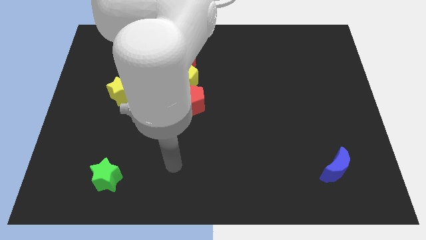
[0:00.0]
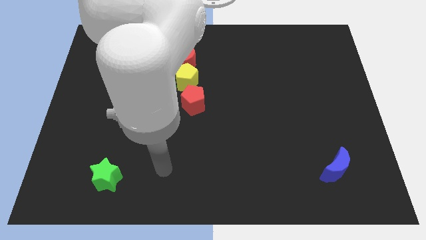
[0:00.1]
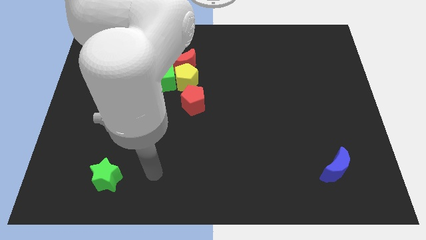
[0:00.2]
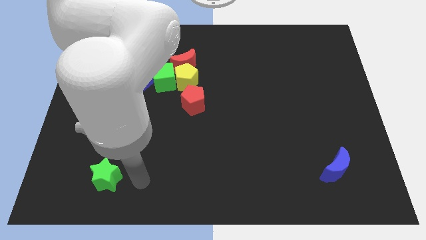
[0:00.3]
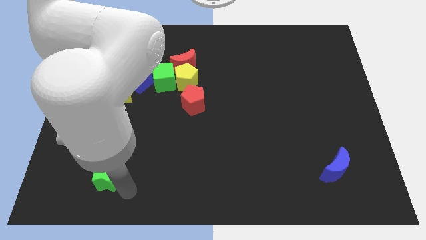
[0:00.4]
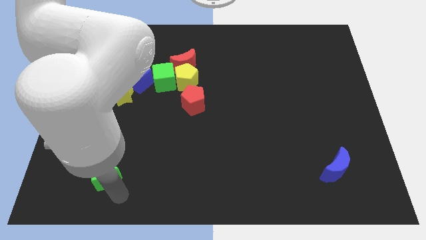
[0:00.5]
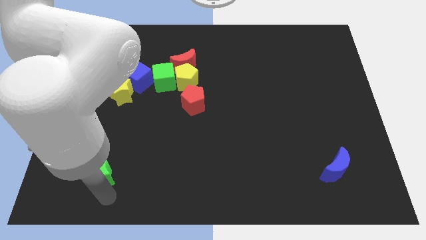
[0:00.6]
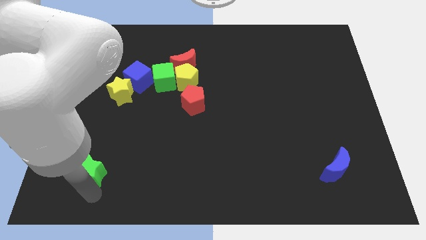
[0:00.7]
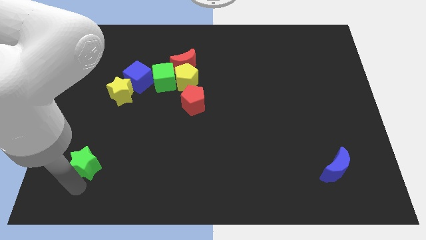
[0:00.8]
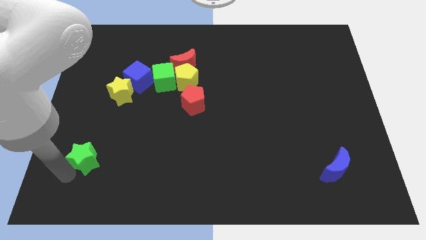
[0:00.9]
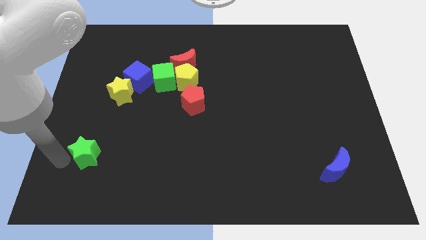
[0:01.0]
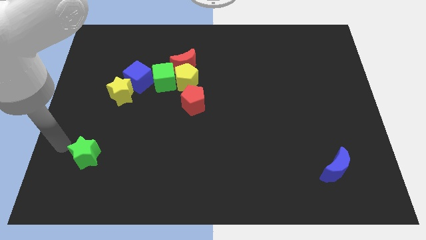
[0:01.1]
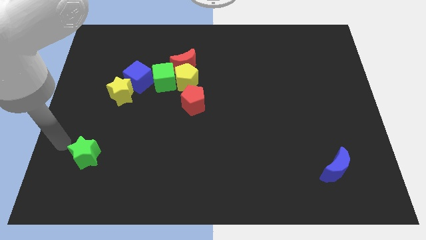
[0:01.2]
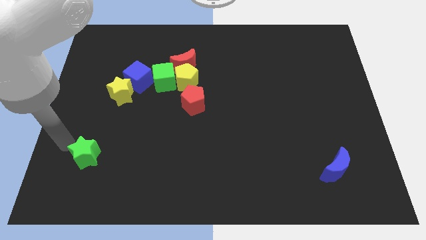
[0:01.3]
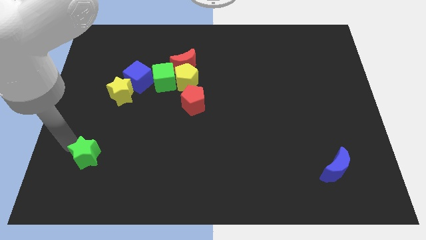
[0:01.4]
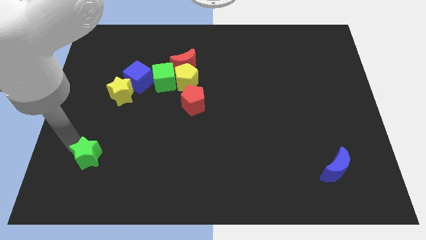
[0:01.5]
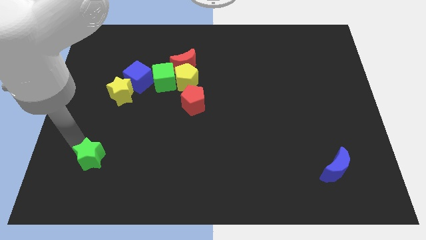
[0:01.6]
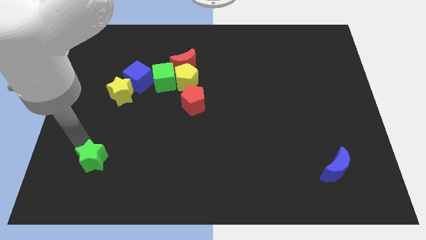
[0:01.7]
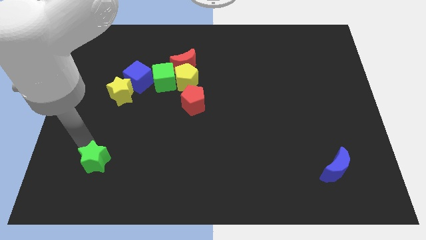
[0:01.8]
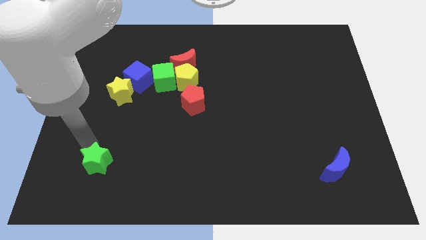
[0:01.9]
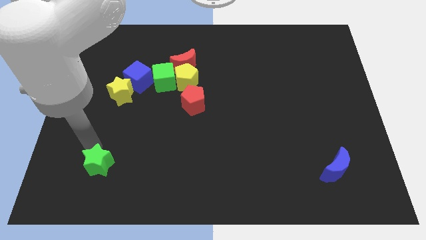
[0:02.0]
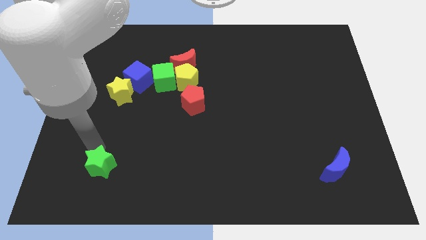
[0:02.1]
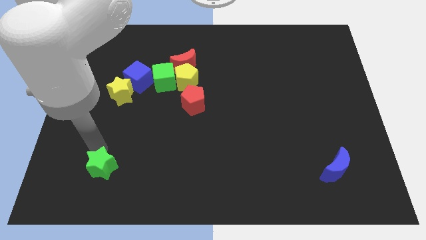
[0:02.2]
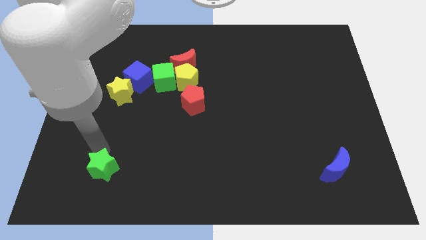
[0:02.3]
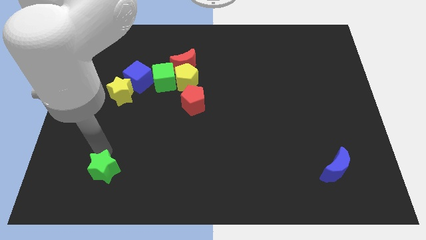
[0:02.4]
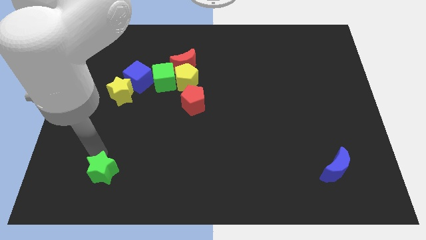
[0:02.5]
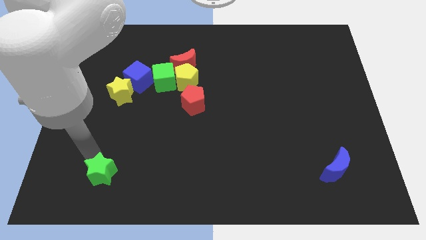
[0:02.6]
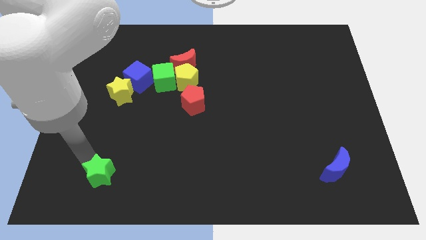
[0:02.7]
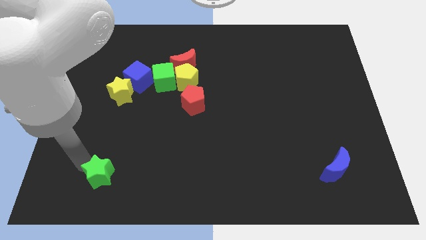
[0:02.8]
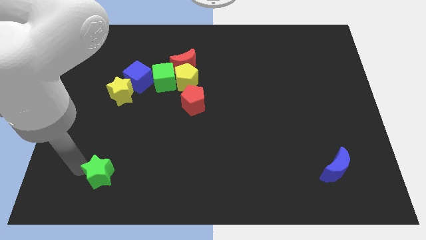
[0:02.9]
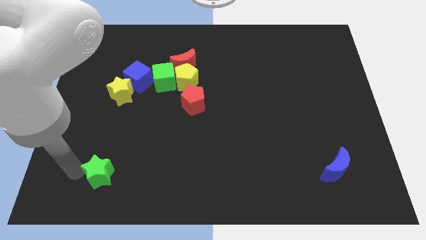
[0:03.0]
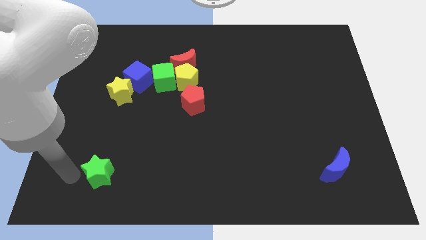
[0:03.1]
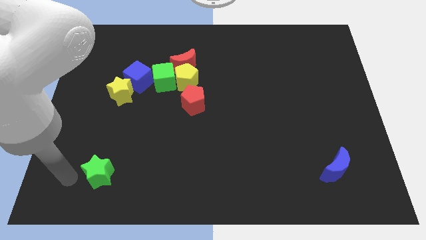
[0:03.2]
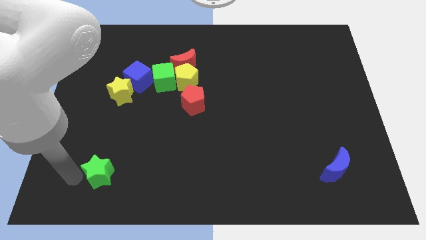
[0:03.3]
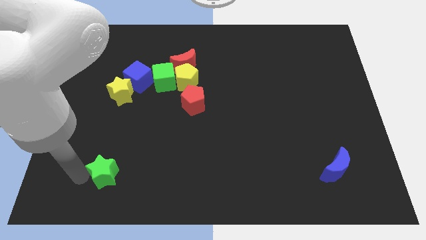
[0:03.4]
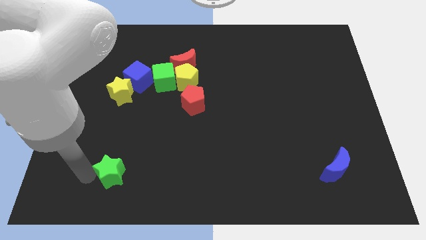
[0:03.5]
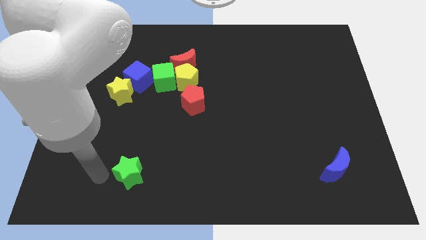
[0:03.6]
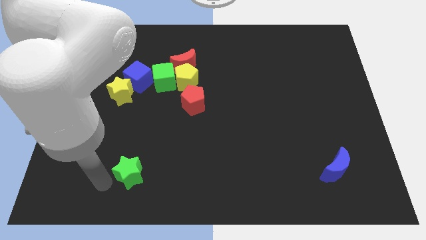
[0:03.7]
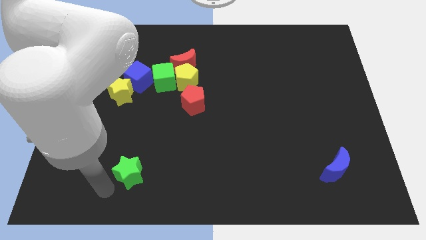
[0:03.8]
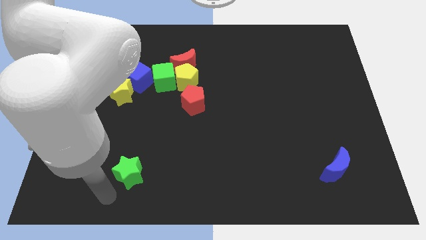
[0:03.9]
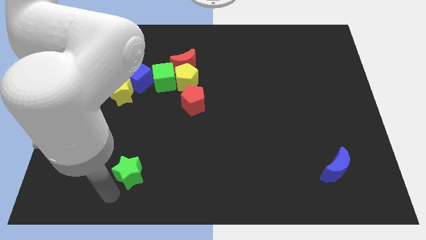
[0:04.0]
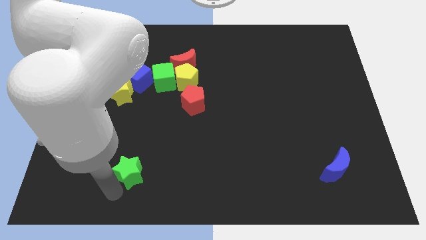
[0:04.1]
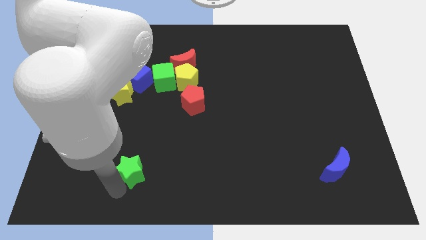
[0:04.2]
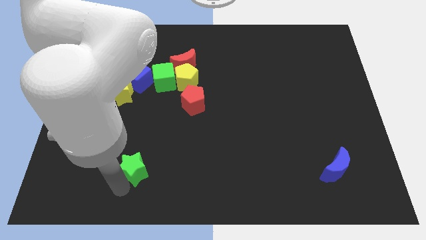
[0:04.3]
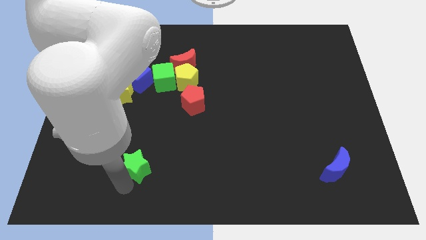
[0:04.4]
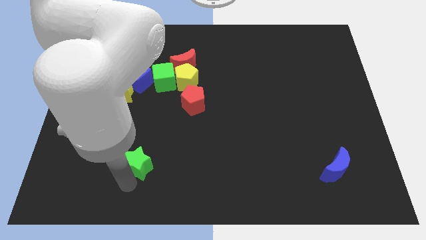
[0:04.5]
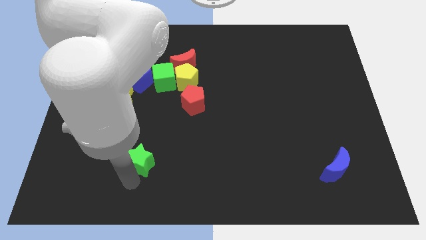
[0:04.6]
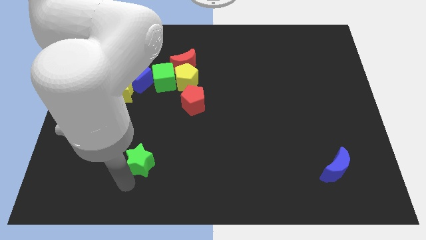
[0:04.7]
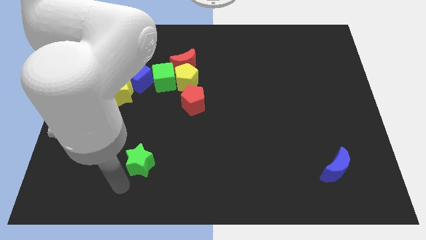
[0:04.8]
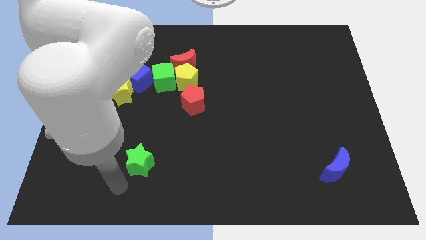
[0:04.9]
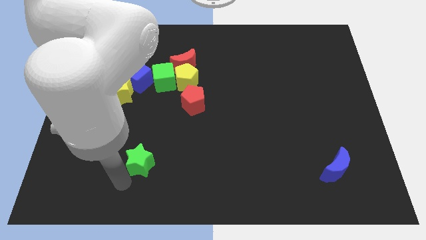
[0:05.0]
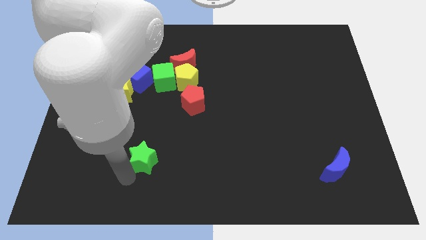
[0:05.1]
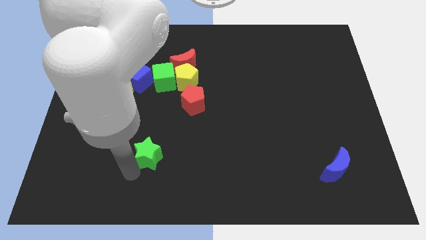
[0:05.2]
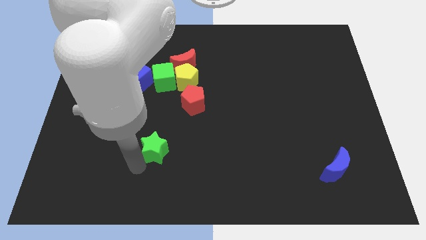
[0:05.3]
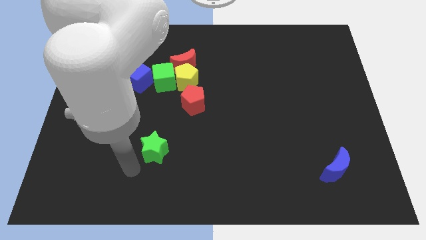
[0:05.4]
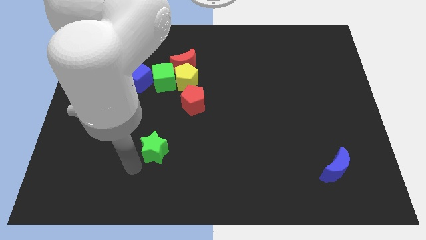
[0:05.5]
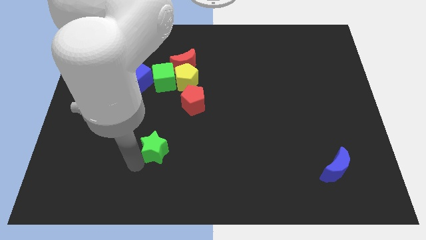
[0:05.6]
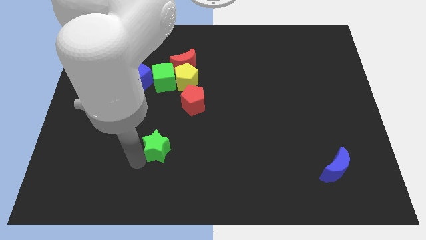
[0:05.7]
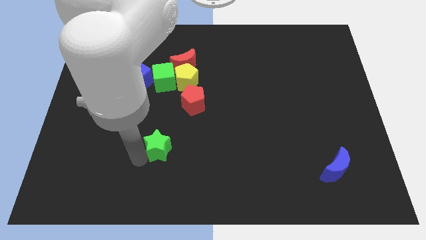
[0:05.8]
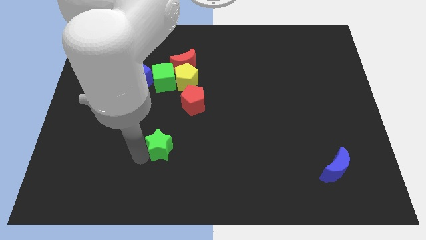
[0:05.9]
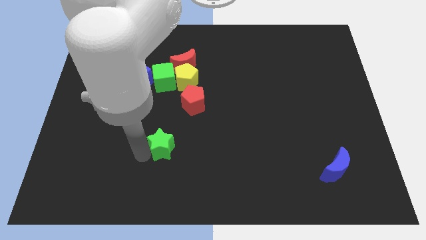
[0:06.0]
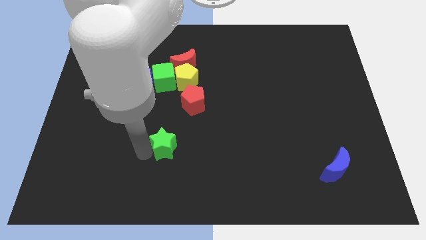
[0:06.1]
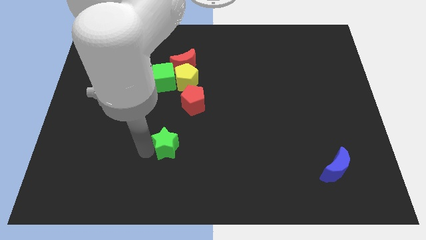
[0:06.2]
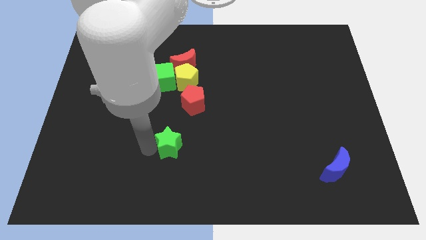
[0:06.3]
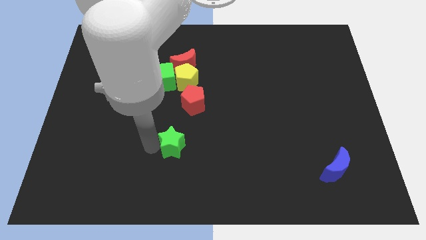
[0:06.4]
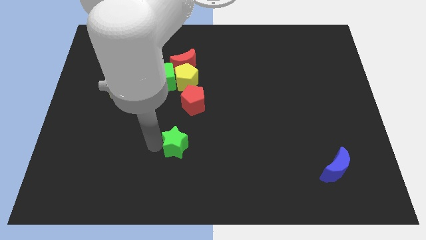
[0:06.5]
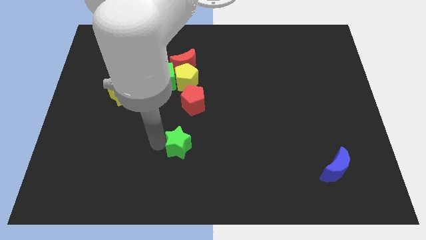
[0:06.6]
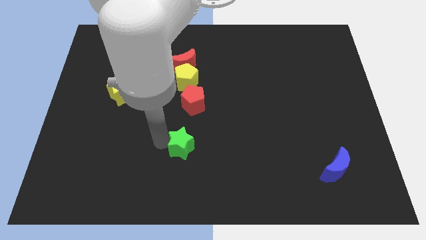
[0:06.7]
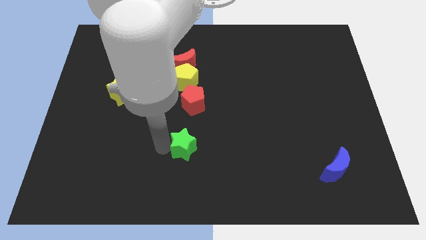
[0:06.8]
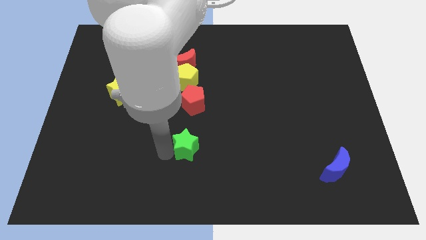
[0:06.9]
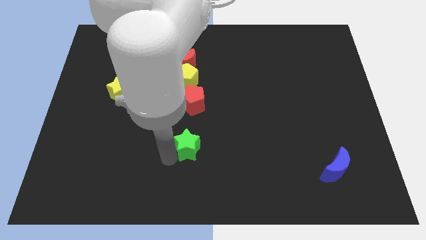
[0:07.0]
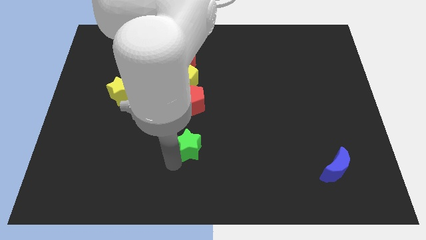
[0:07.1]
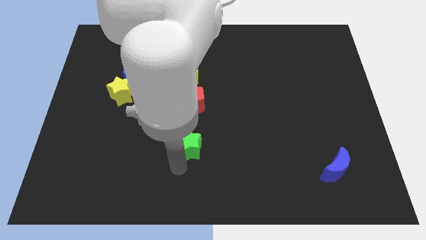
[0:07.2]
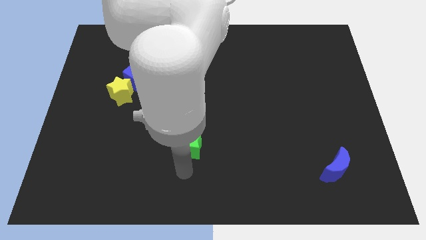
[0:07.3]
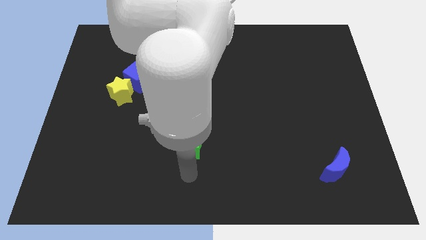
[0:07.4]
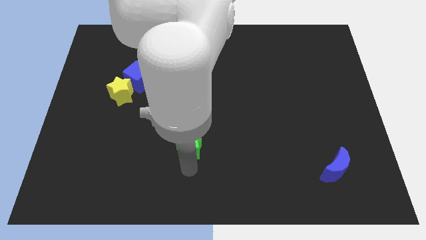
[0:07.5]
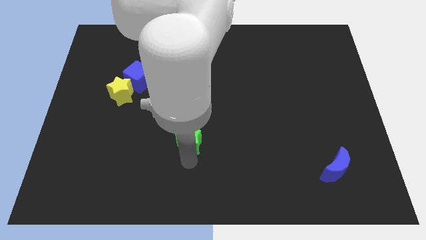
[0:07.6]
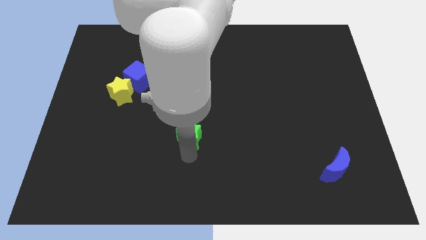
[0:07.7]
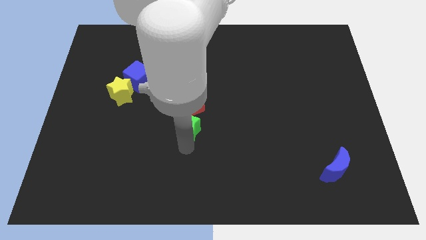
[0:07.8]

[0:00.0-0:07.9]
slide the green star up and right diagonally

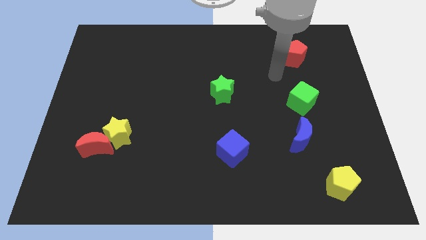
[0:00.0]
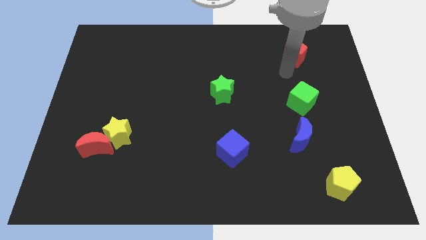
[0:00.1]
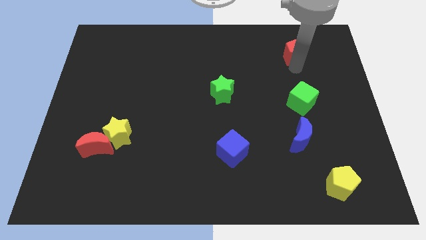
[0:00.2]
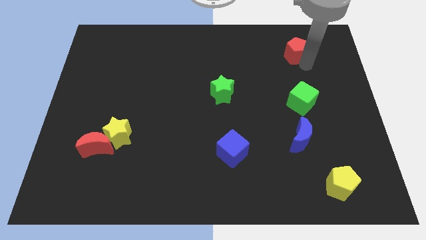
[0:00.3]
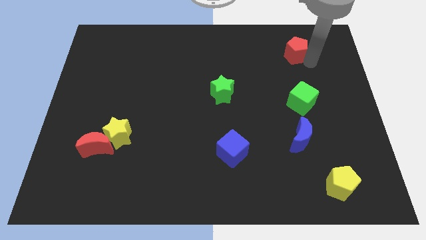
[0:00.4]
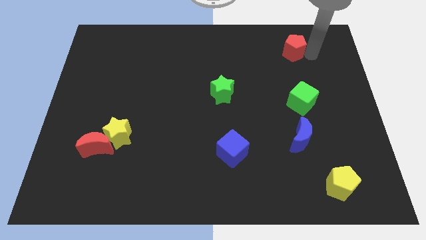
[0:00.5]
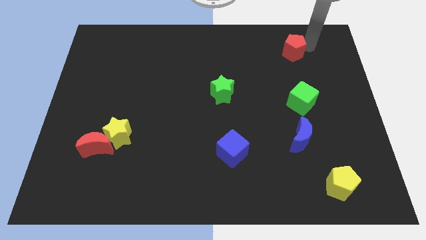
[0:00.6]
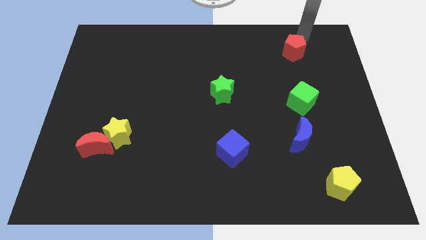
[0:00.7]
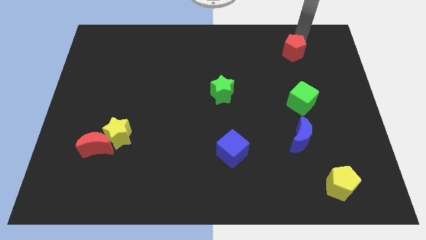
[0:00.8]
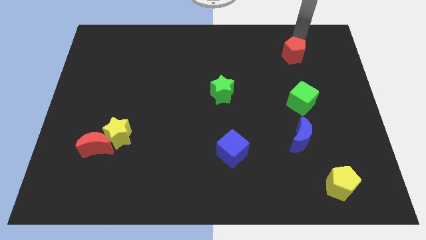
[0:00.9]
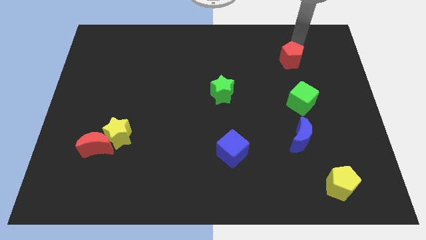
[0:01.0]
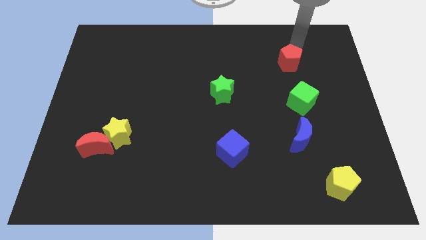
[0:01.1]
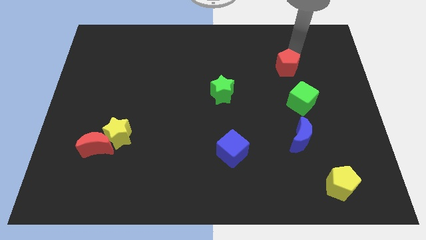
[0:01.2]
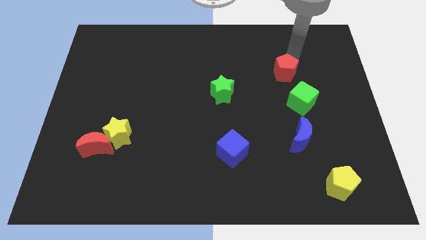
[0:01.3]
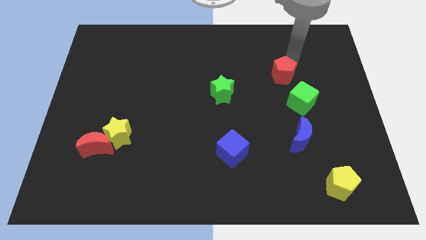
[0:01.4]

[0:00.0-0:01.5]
move the red pentagon somewhat diagonally downwards and to the left
